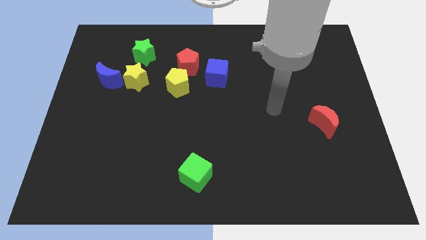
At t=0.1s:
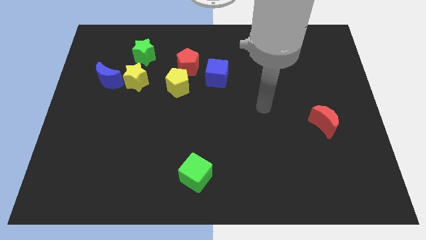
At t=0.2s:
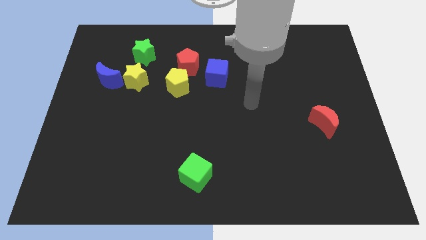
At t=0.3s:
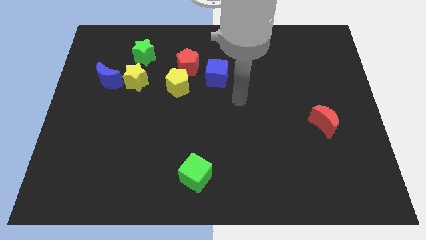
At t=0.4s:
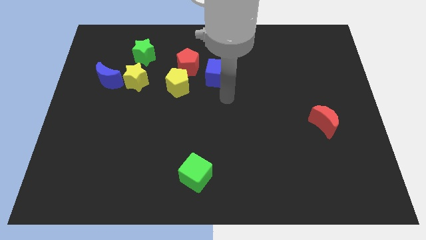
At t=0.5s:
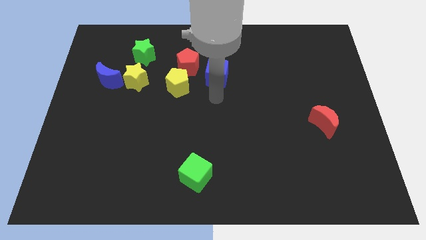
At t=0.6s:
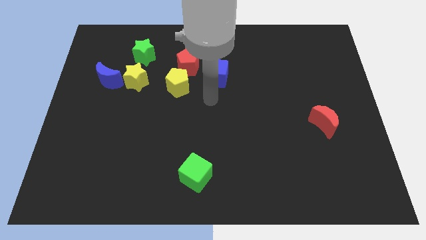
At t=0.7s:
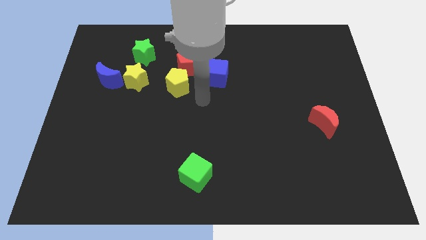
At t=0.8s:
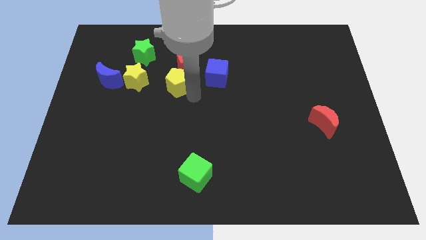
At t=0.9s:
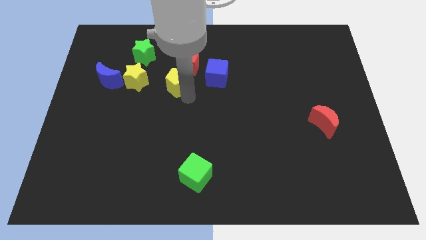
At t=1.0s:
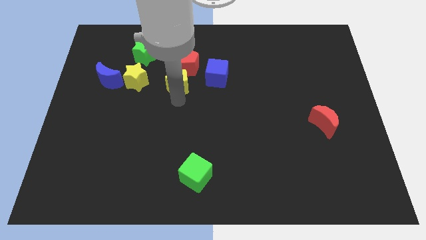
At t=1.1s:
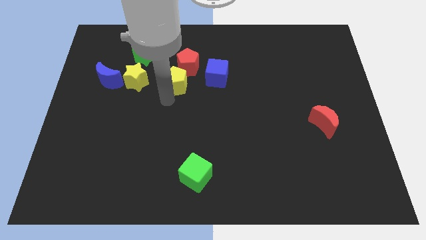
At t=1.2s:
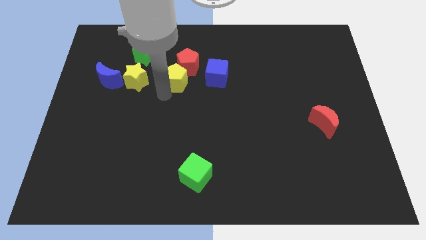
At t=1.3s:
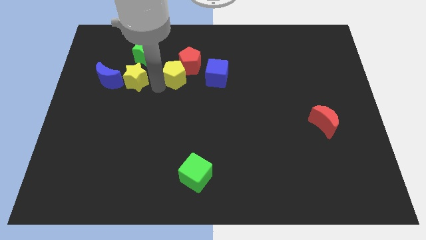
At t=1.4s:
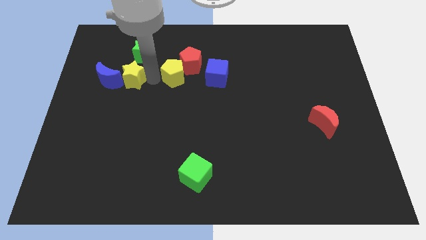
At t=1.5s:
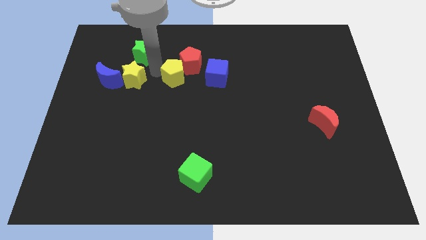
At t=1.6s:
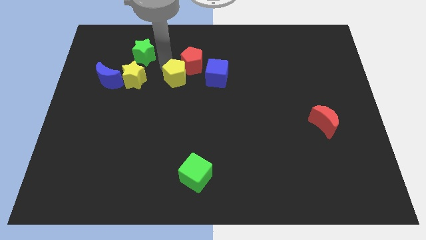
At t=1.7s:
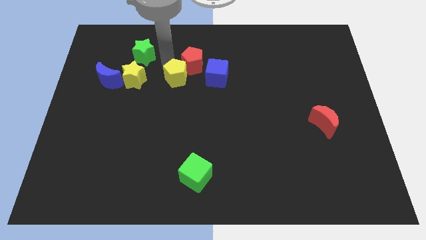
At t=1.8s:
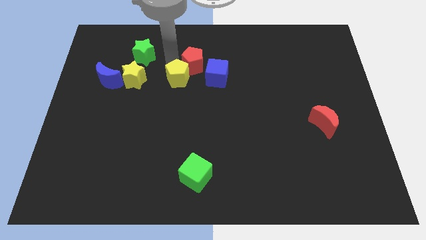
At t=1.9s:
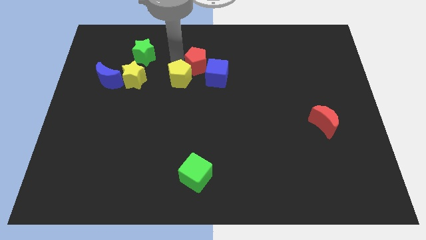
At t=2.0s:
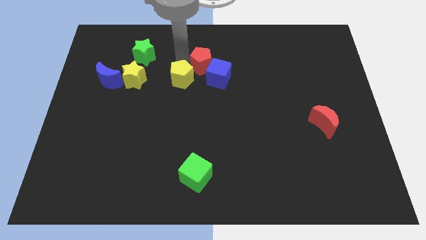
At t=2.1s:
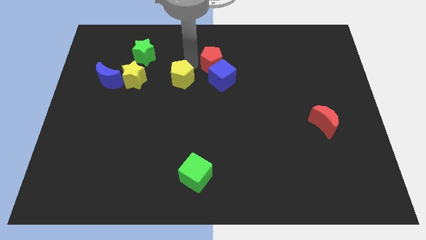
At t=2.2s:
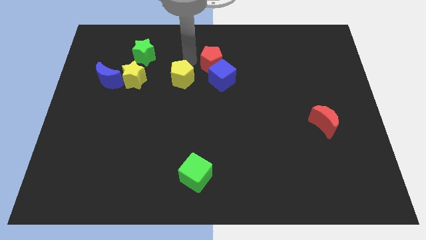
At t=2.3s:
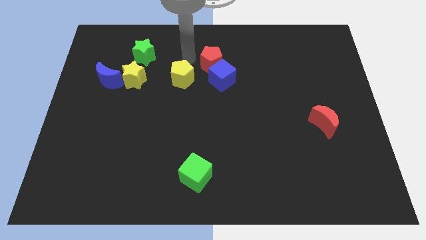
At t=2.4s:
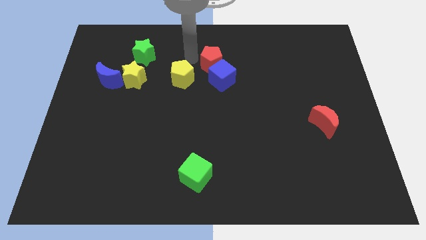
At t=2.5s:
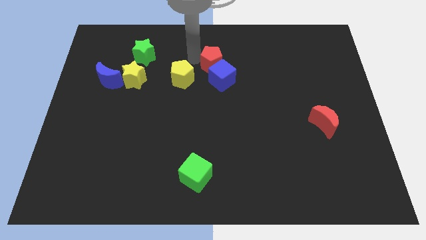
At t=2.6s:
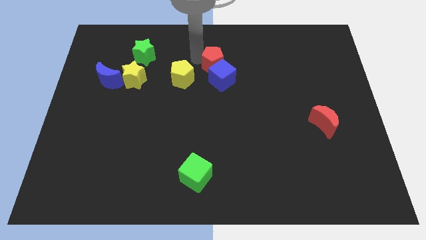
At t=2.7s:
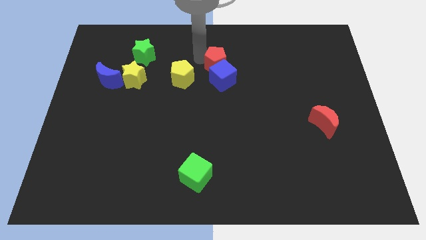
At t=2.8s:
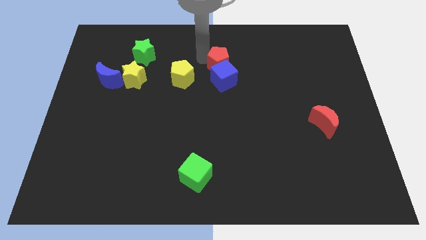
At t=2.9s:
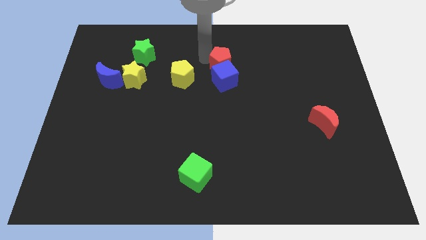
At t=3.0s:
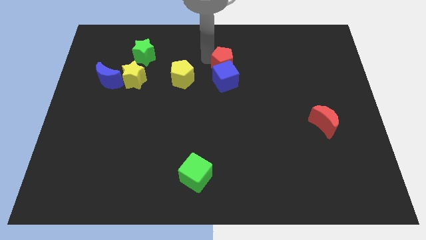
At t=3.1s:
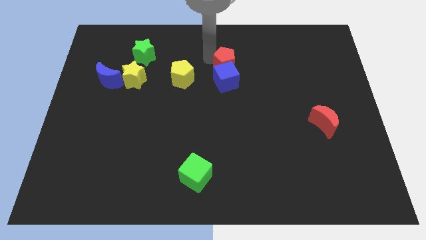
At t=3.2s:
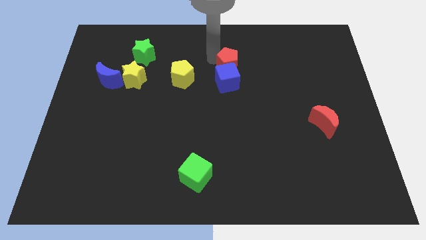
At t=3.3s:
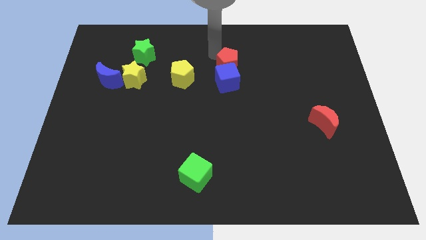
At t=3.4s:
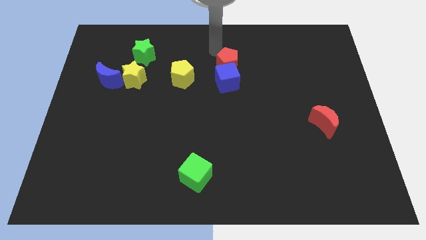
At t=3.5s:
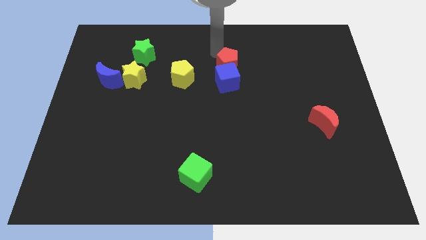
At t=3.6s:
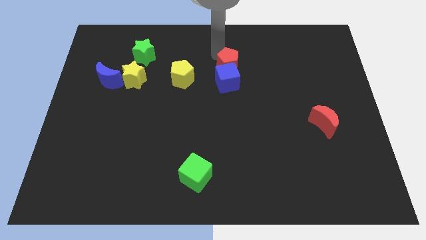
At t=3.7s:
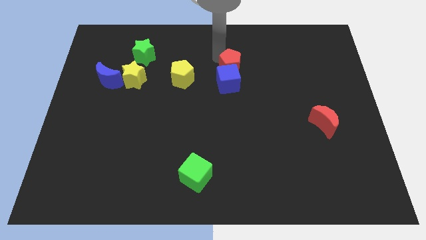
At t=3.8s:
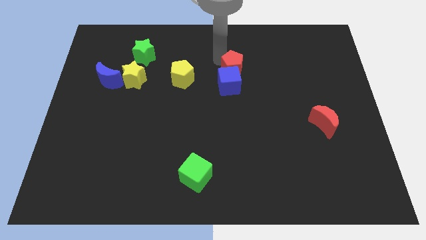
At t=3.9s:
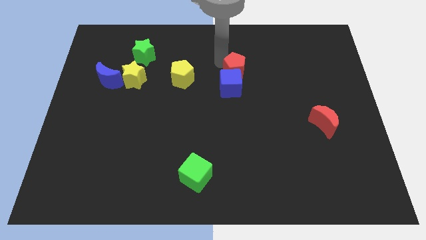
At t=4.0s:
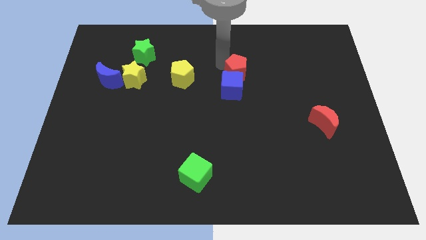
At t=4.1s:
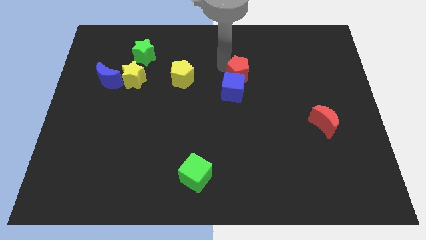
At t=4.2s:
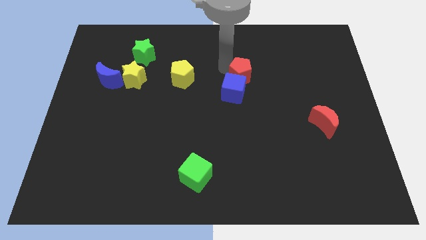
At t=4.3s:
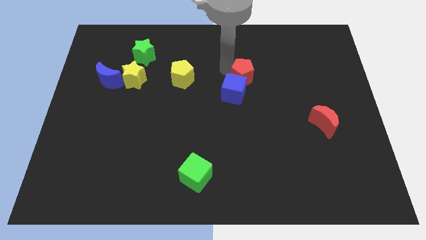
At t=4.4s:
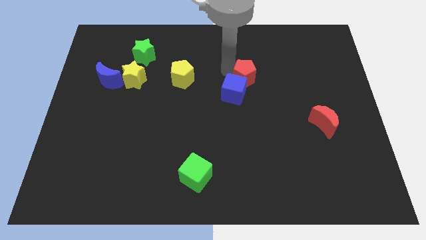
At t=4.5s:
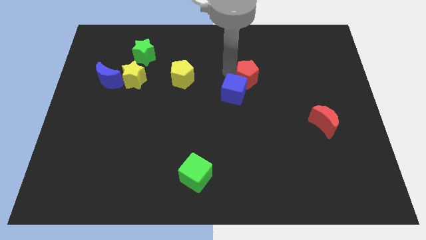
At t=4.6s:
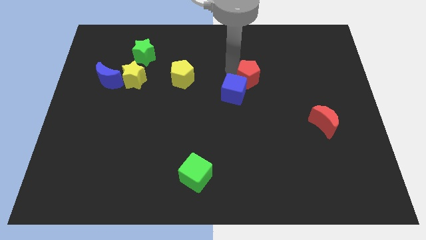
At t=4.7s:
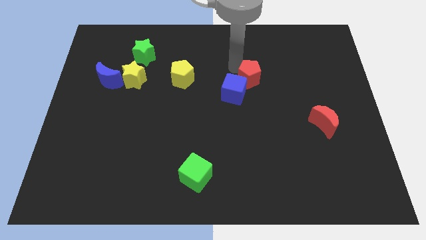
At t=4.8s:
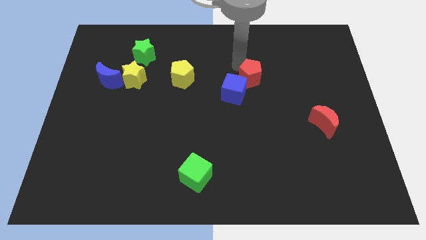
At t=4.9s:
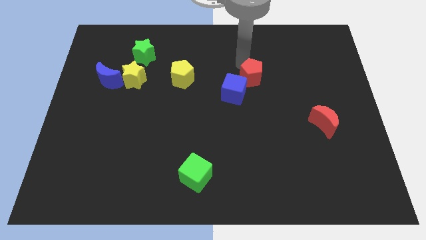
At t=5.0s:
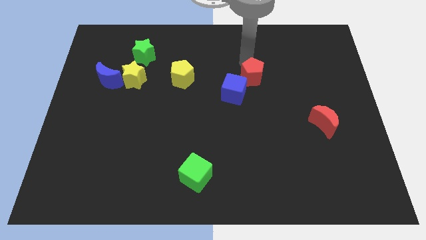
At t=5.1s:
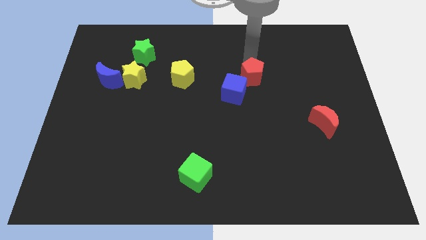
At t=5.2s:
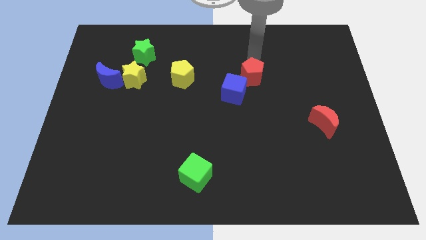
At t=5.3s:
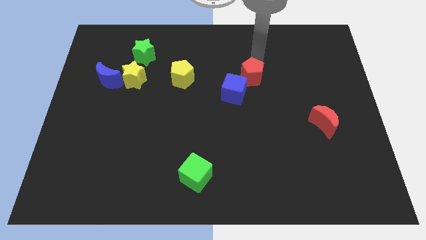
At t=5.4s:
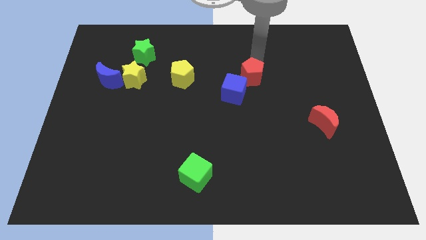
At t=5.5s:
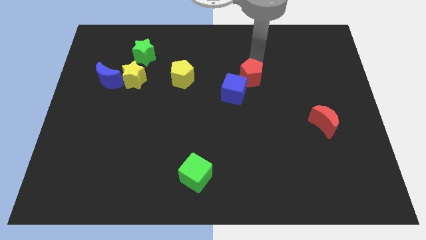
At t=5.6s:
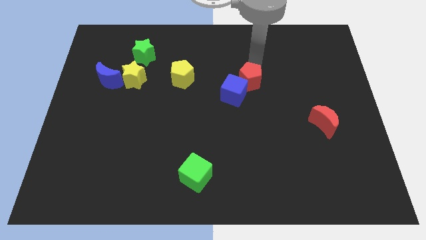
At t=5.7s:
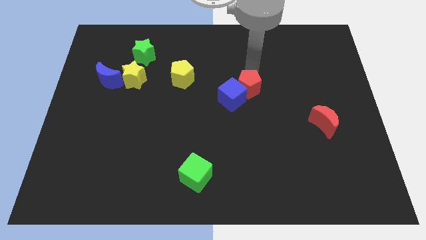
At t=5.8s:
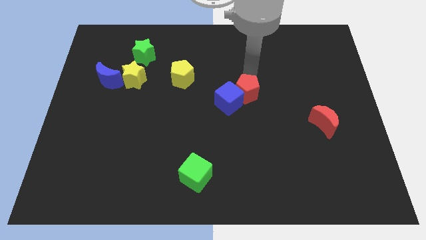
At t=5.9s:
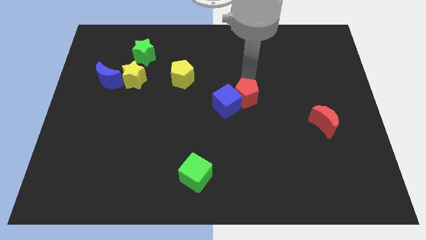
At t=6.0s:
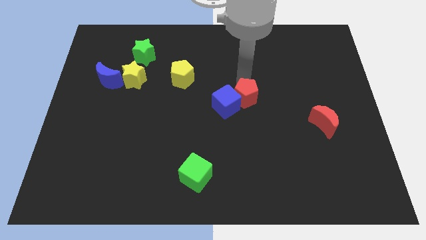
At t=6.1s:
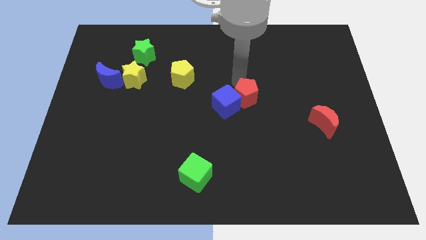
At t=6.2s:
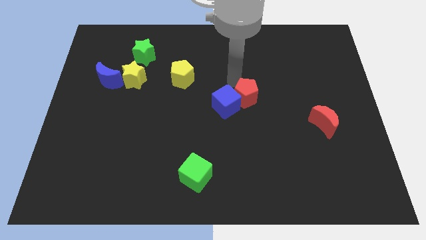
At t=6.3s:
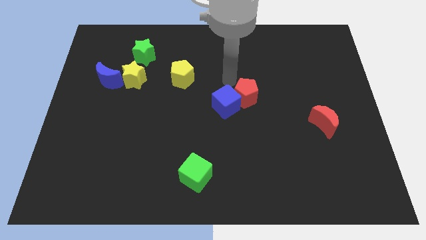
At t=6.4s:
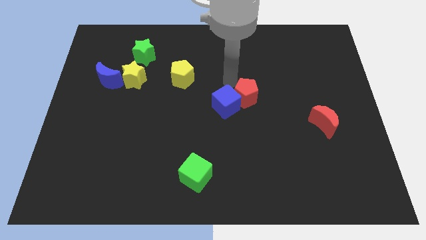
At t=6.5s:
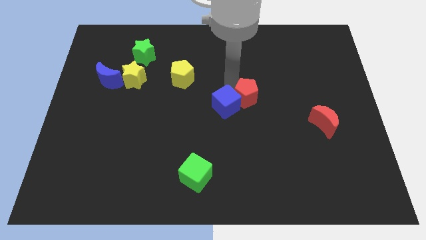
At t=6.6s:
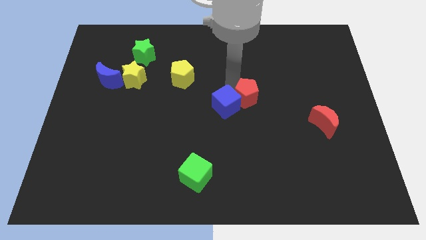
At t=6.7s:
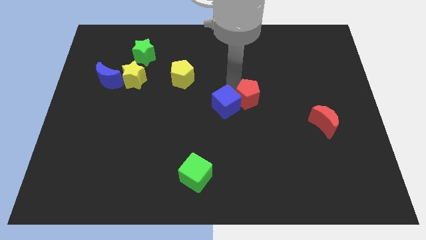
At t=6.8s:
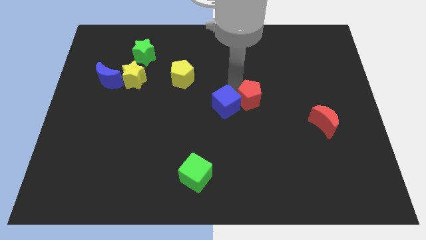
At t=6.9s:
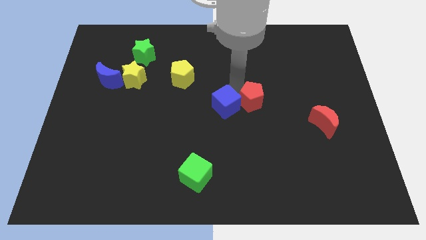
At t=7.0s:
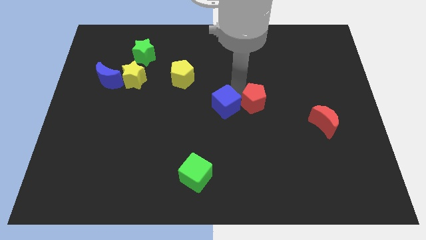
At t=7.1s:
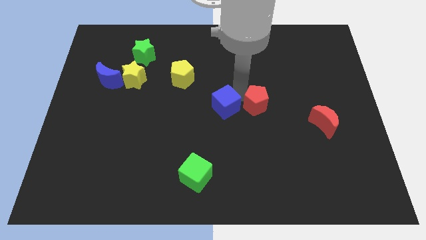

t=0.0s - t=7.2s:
push the red pentagon diagonally down and right

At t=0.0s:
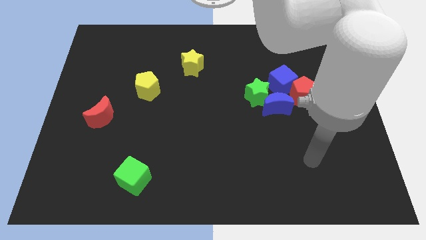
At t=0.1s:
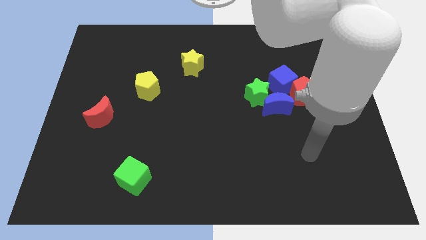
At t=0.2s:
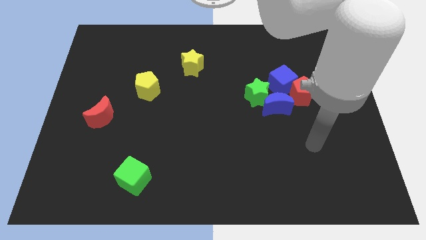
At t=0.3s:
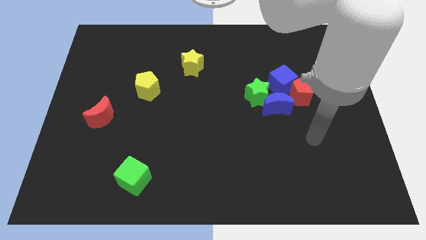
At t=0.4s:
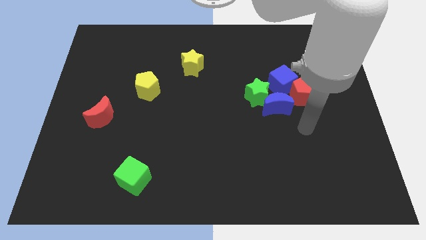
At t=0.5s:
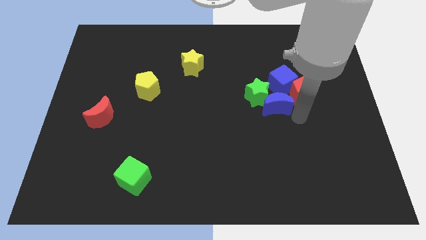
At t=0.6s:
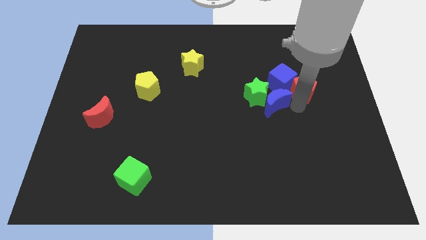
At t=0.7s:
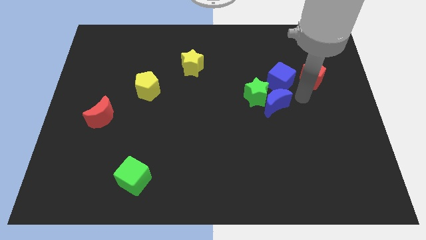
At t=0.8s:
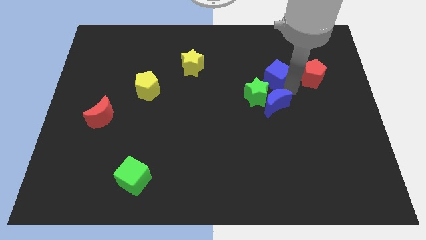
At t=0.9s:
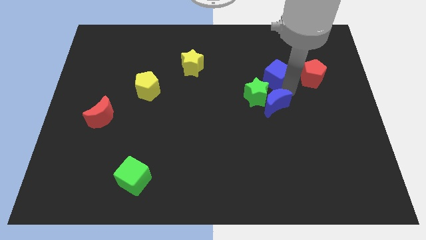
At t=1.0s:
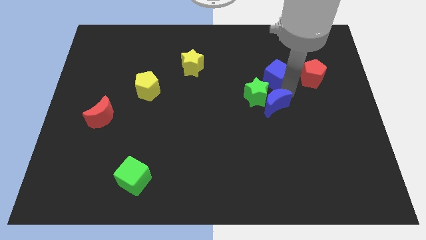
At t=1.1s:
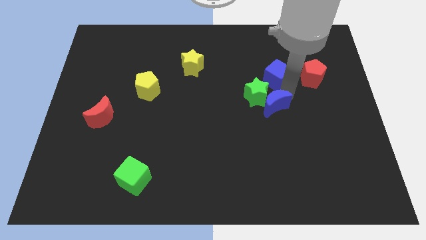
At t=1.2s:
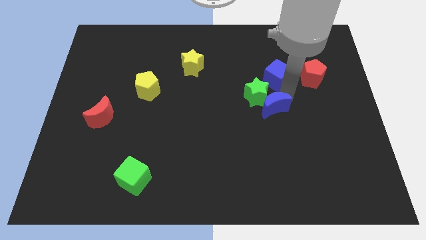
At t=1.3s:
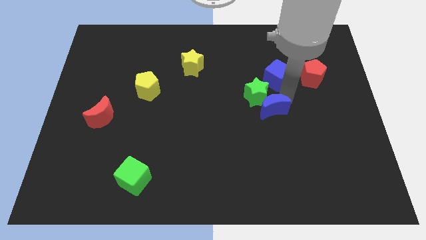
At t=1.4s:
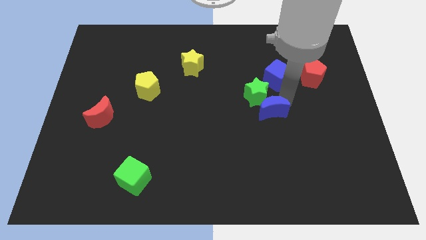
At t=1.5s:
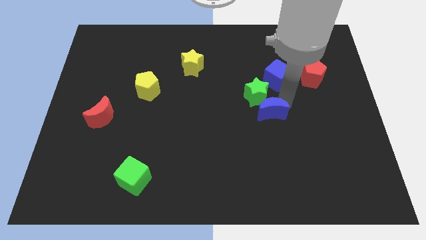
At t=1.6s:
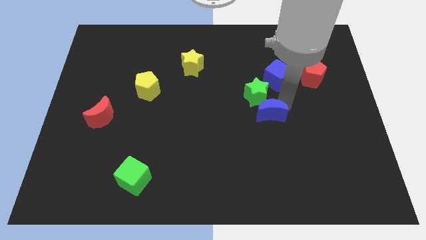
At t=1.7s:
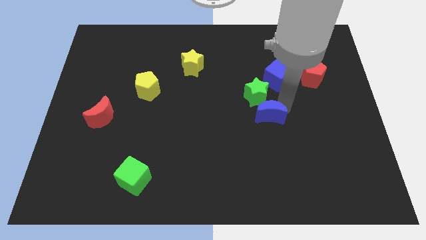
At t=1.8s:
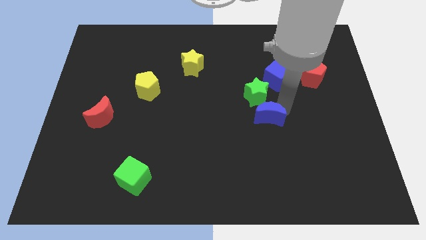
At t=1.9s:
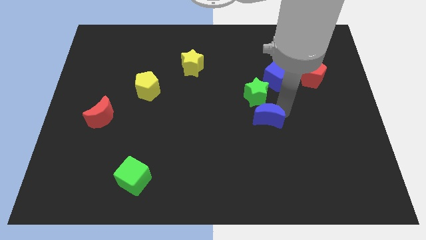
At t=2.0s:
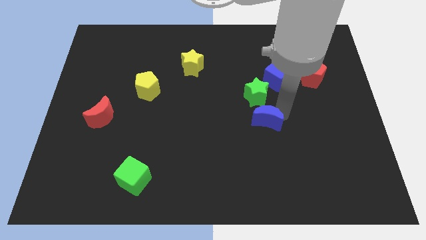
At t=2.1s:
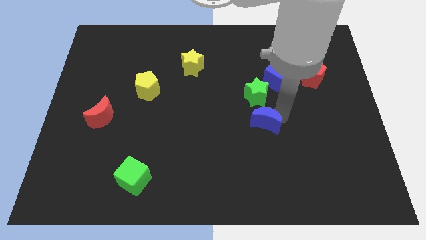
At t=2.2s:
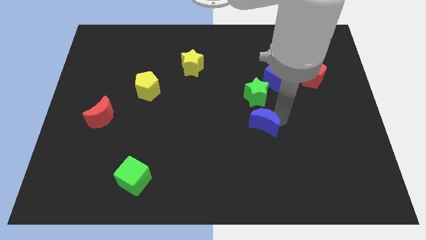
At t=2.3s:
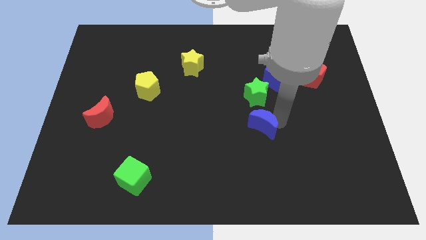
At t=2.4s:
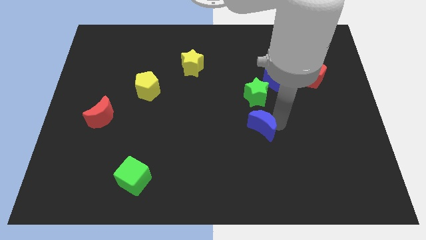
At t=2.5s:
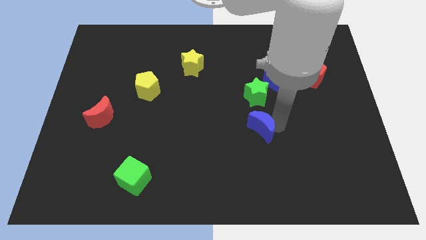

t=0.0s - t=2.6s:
move the blue moon downwards and left a little
